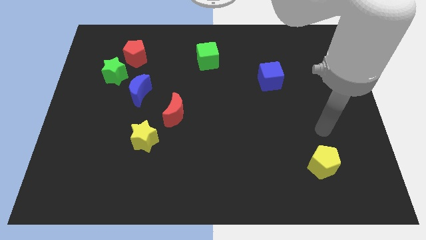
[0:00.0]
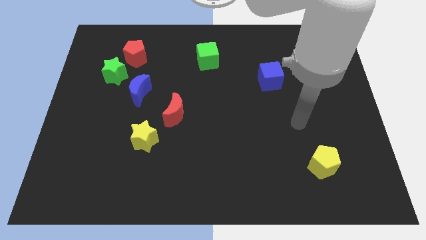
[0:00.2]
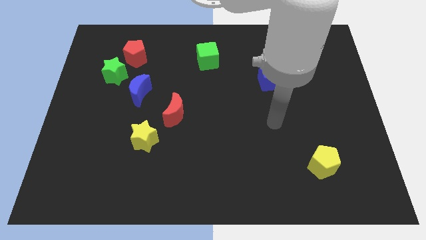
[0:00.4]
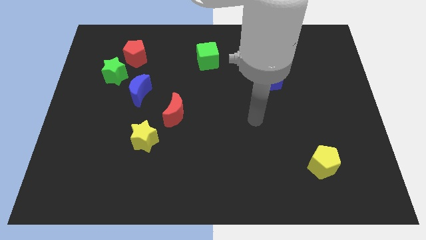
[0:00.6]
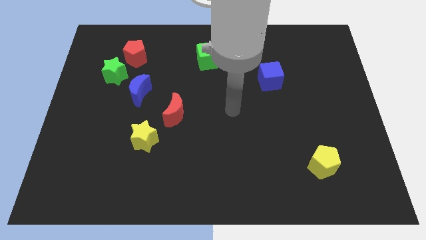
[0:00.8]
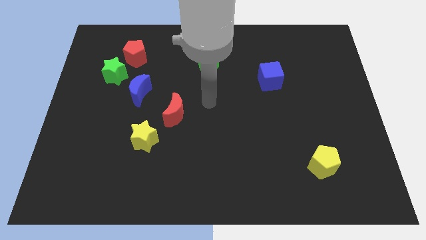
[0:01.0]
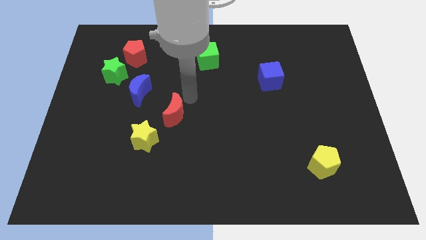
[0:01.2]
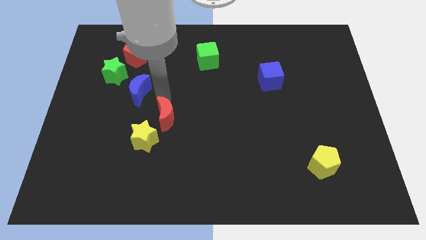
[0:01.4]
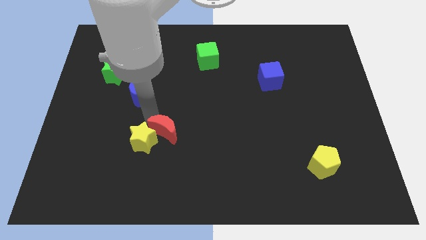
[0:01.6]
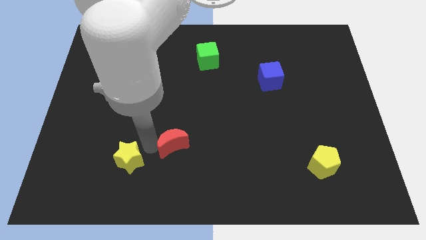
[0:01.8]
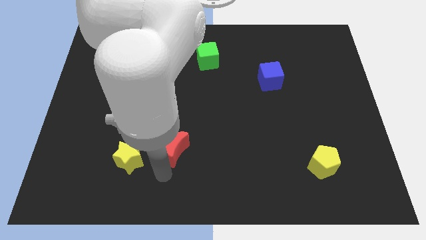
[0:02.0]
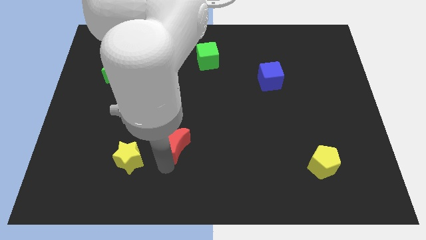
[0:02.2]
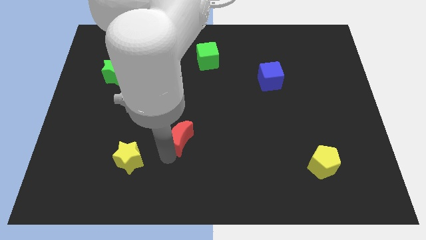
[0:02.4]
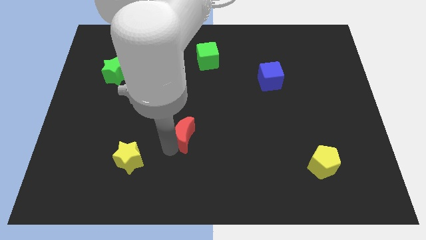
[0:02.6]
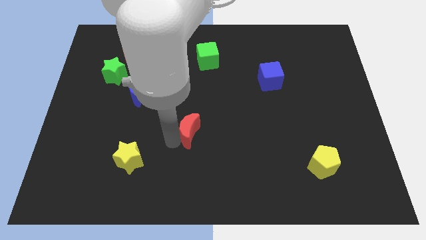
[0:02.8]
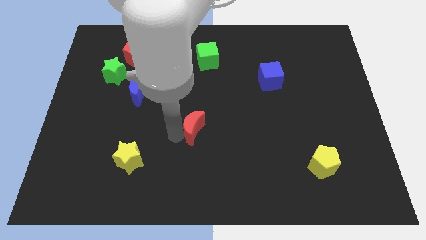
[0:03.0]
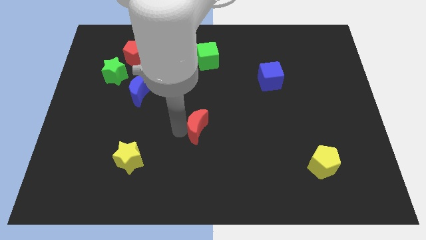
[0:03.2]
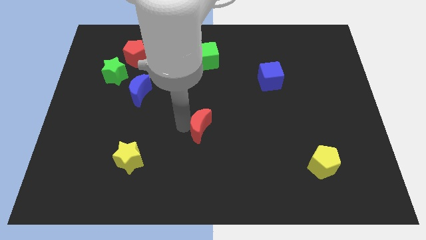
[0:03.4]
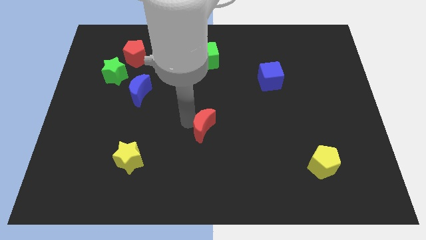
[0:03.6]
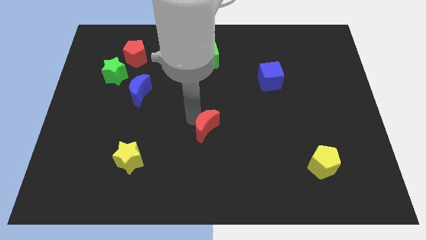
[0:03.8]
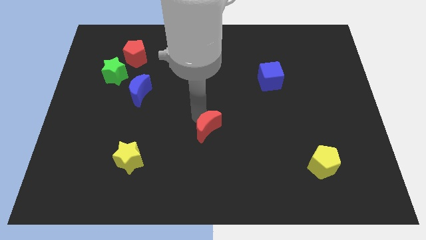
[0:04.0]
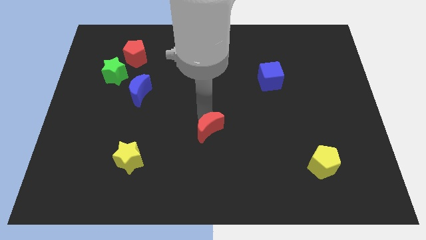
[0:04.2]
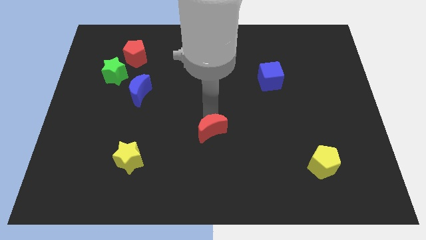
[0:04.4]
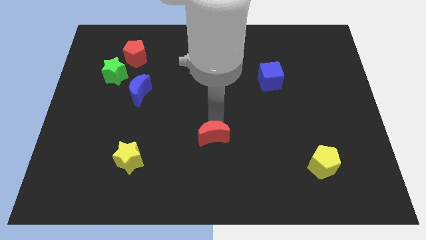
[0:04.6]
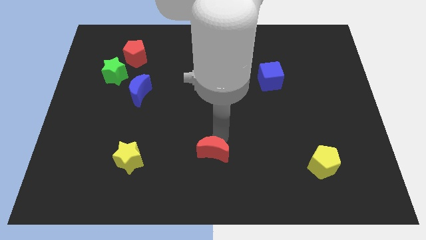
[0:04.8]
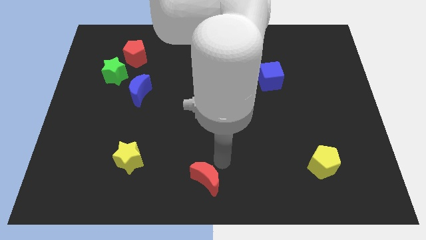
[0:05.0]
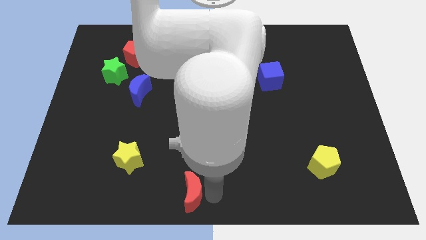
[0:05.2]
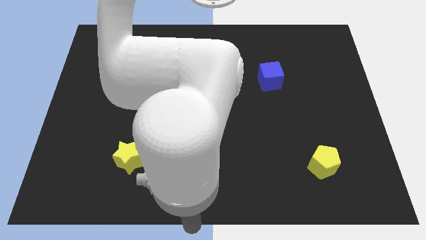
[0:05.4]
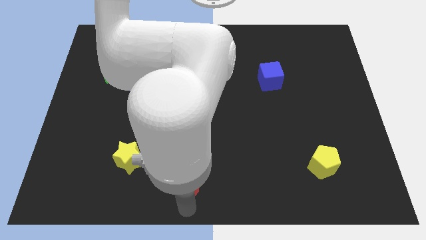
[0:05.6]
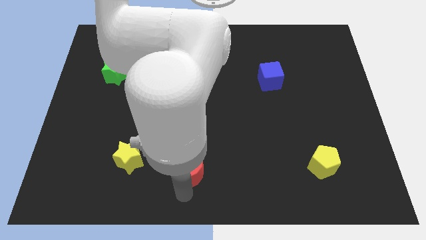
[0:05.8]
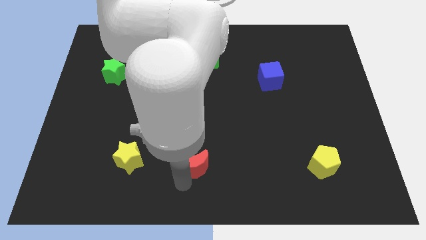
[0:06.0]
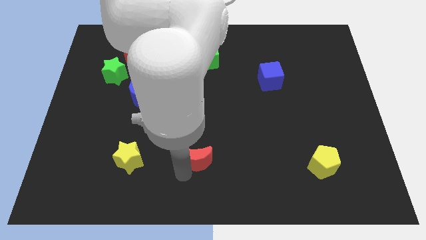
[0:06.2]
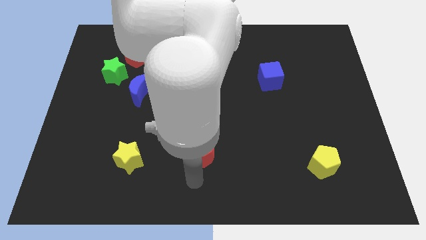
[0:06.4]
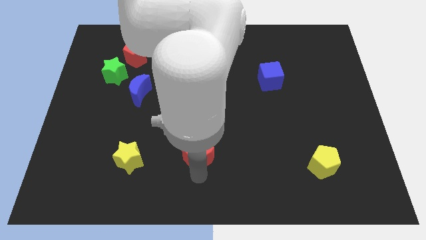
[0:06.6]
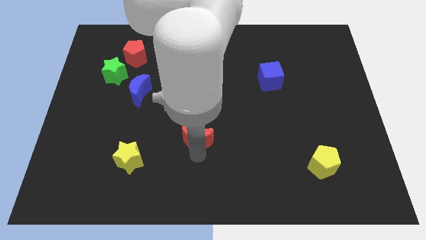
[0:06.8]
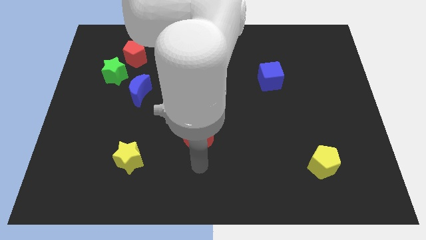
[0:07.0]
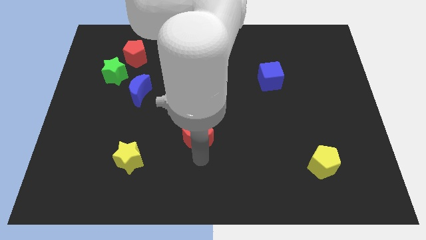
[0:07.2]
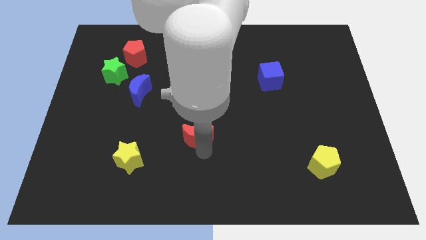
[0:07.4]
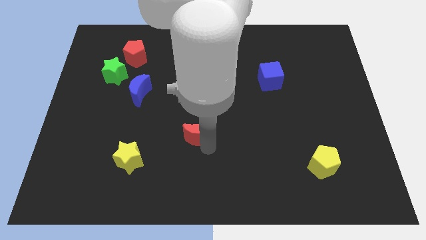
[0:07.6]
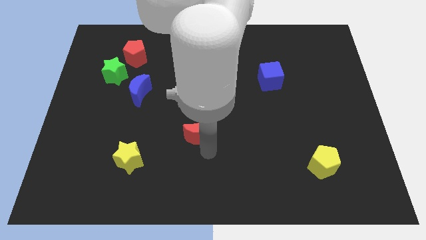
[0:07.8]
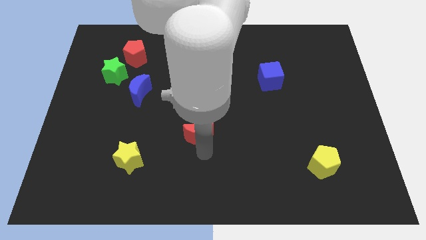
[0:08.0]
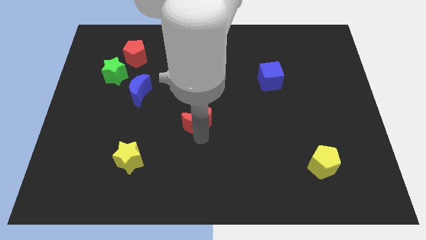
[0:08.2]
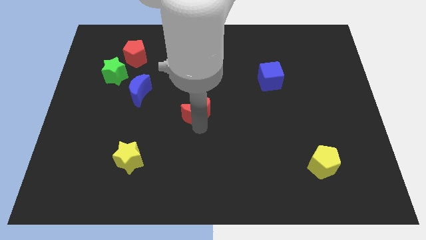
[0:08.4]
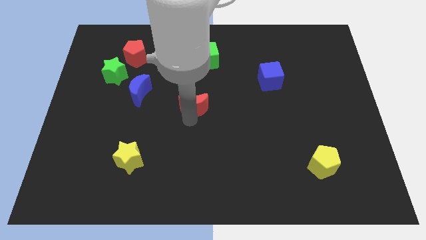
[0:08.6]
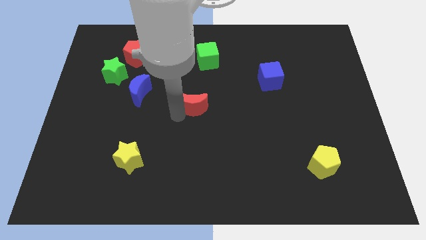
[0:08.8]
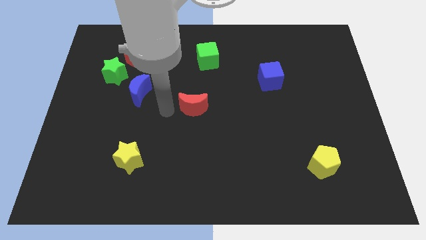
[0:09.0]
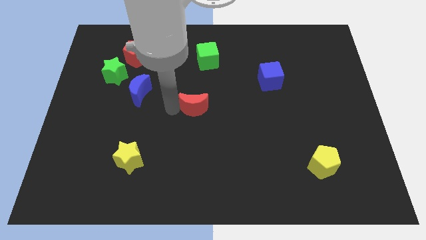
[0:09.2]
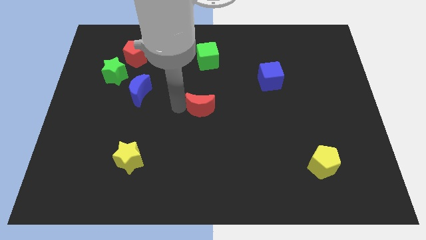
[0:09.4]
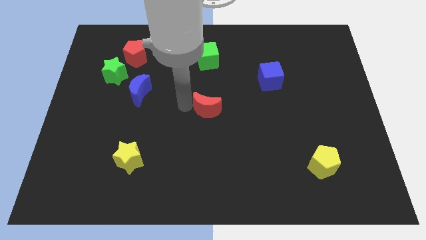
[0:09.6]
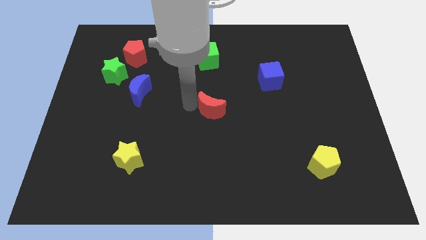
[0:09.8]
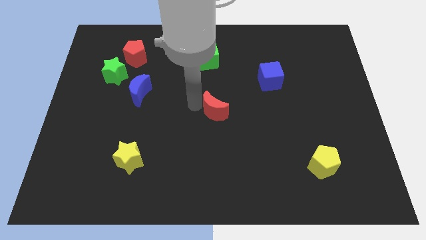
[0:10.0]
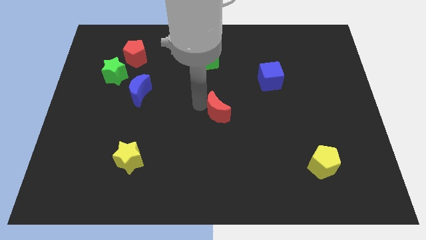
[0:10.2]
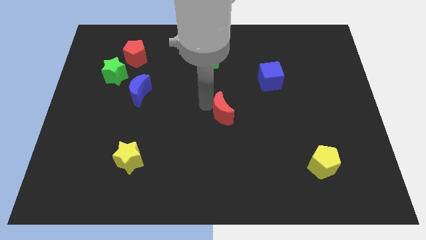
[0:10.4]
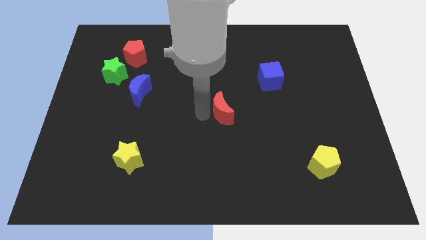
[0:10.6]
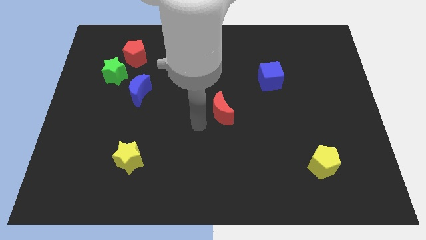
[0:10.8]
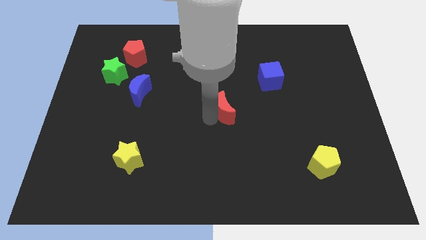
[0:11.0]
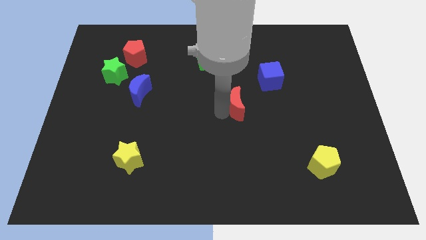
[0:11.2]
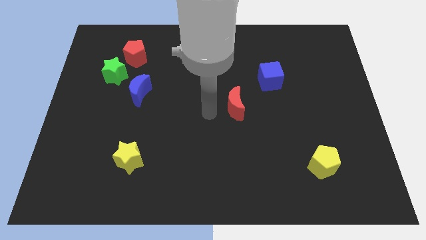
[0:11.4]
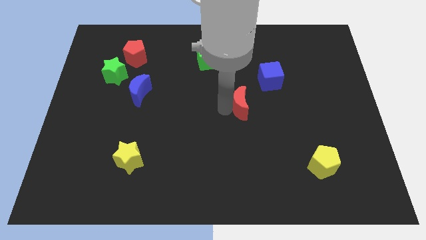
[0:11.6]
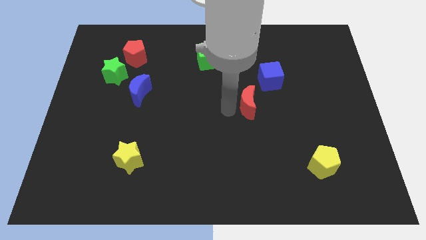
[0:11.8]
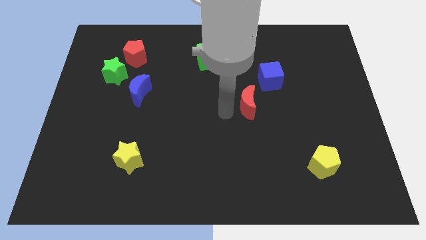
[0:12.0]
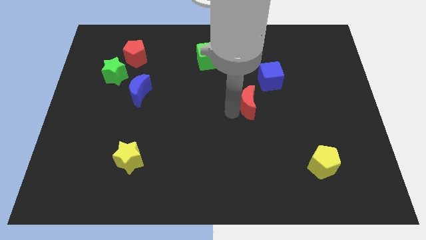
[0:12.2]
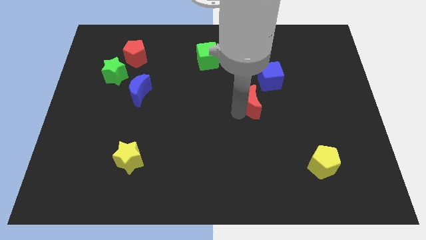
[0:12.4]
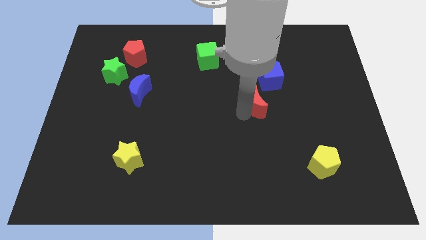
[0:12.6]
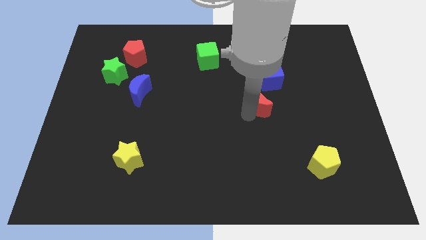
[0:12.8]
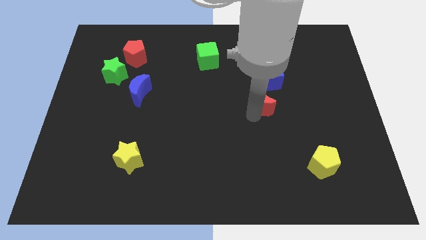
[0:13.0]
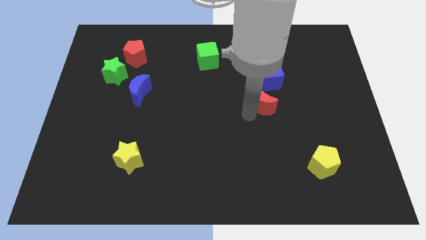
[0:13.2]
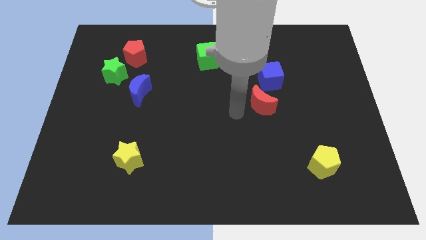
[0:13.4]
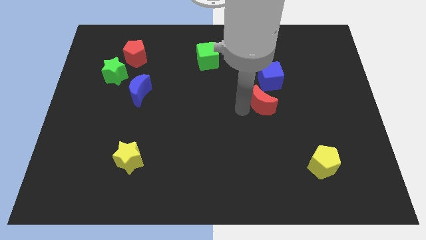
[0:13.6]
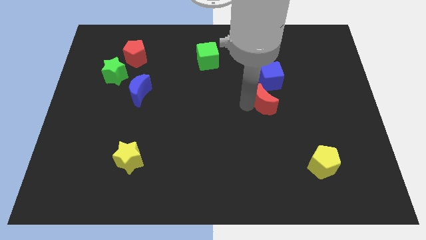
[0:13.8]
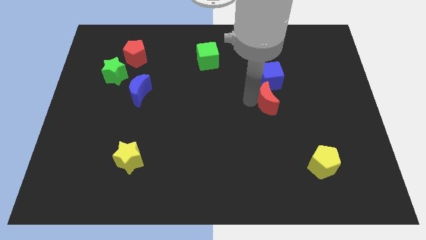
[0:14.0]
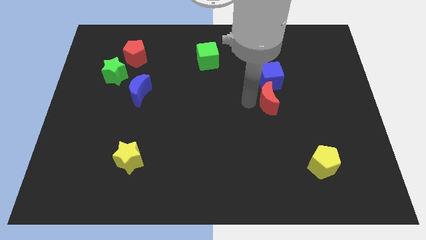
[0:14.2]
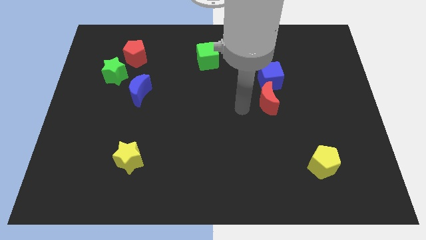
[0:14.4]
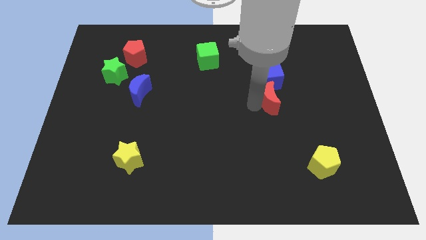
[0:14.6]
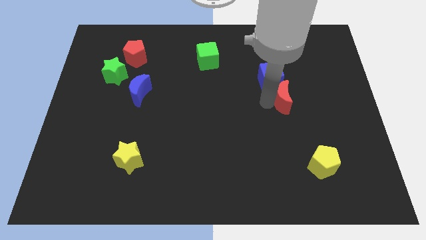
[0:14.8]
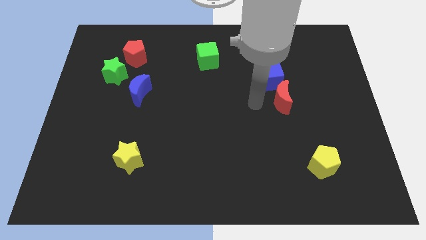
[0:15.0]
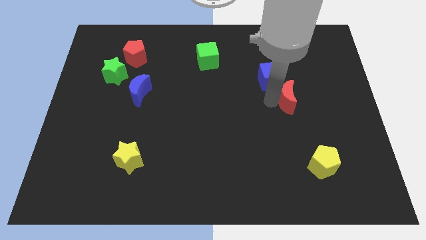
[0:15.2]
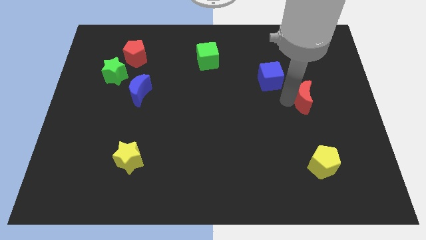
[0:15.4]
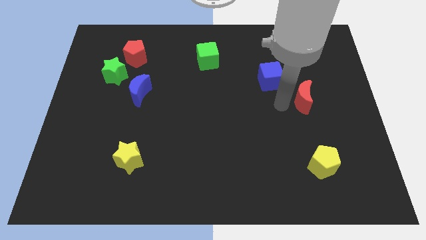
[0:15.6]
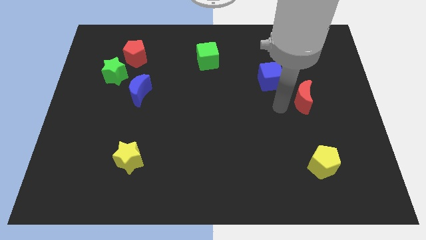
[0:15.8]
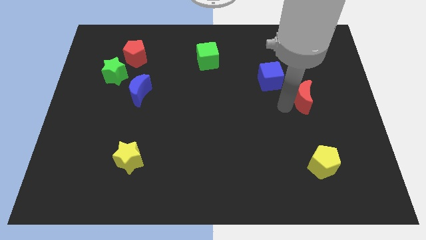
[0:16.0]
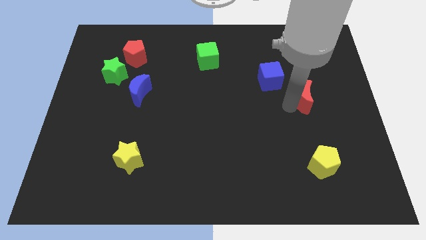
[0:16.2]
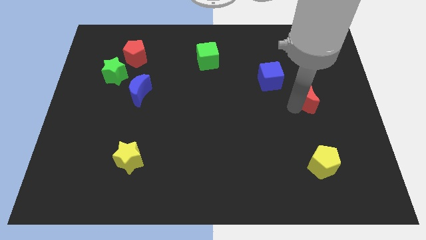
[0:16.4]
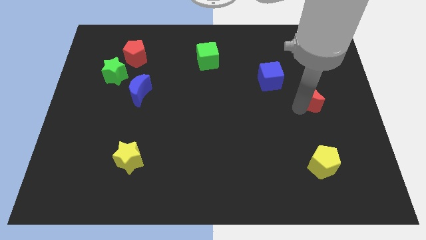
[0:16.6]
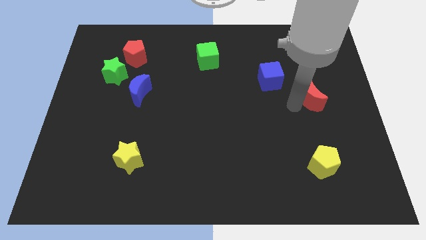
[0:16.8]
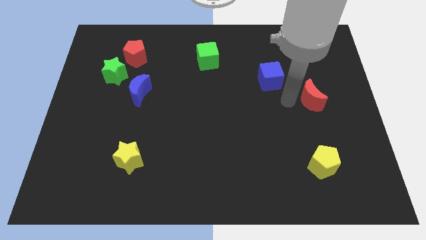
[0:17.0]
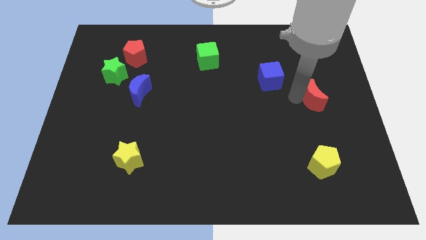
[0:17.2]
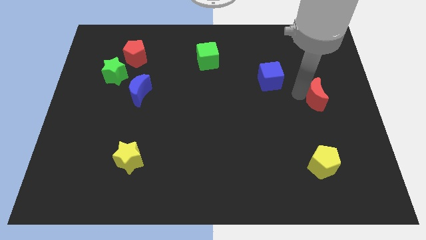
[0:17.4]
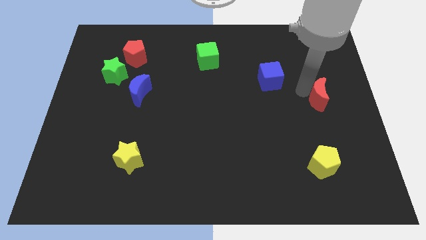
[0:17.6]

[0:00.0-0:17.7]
slide the red moon to the right side of the board
